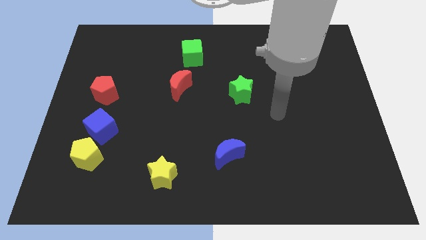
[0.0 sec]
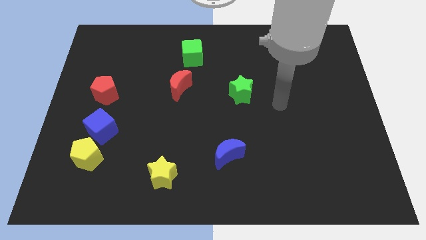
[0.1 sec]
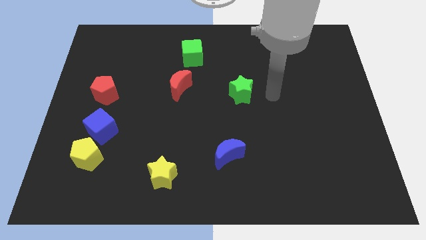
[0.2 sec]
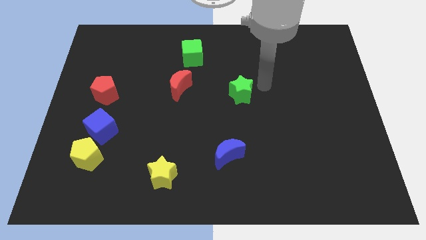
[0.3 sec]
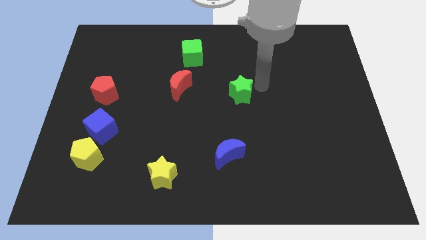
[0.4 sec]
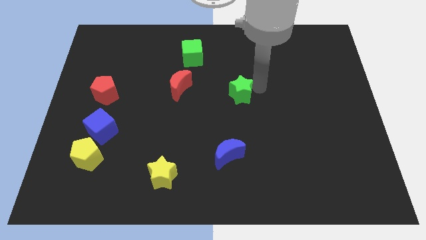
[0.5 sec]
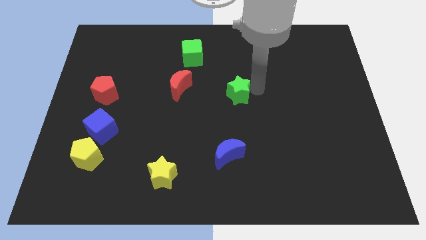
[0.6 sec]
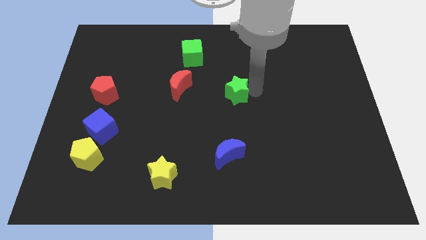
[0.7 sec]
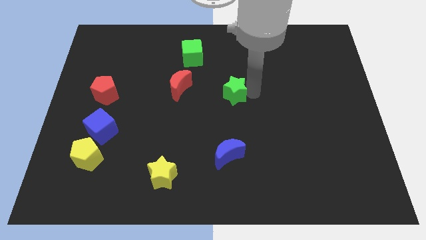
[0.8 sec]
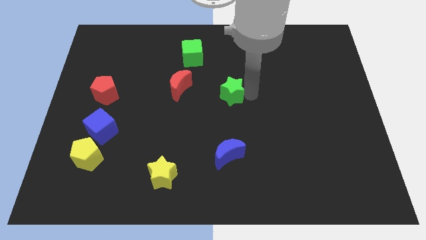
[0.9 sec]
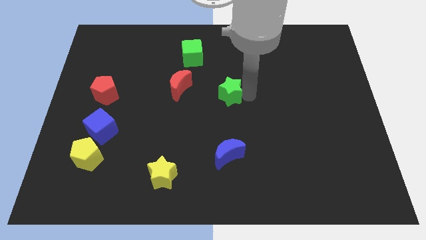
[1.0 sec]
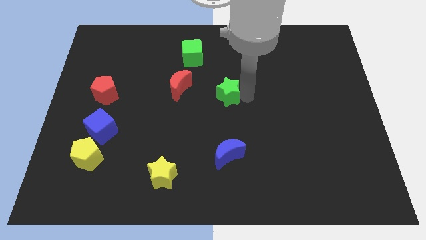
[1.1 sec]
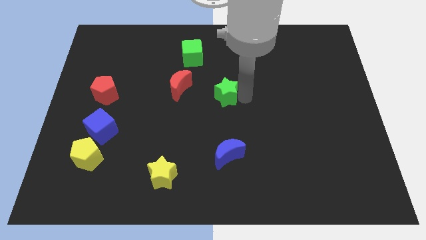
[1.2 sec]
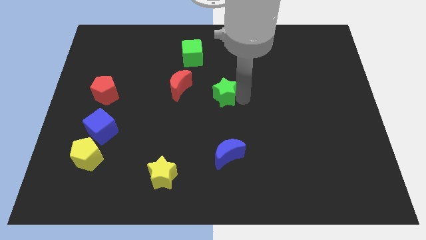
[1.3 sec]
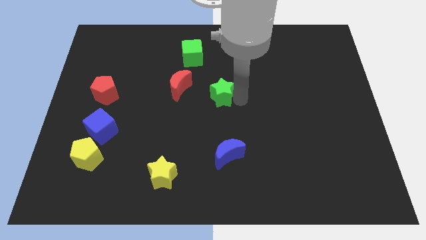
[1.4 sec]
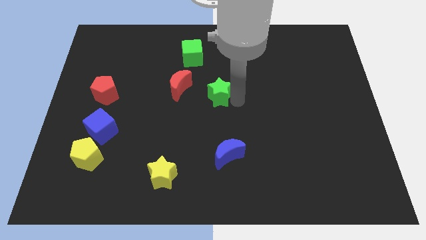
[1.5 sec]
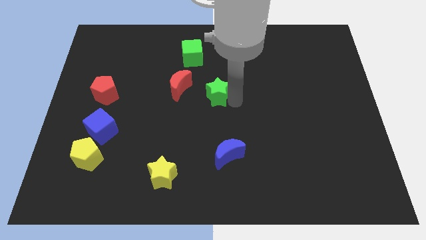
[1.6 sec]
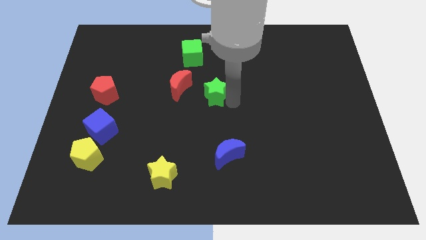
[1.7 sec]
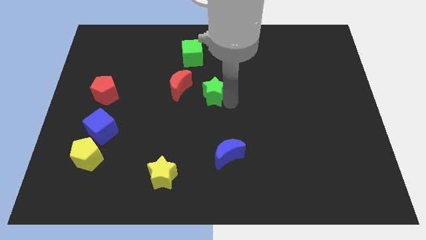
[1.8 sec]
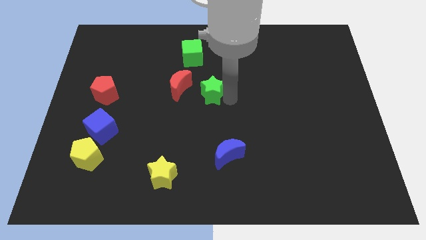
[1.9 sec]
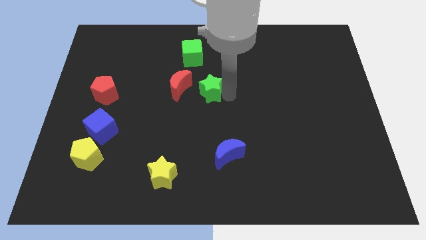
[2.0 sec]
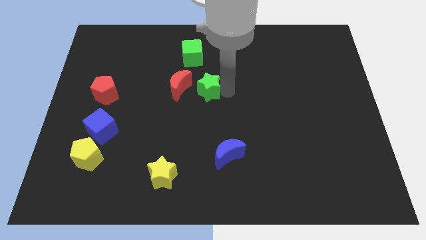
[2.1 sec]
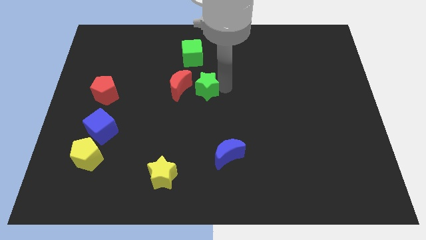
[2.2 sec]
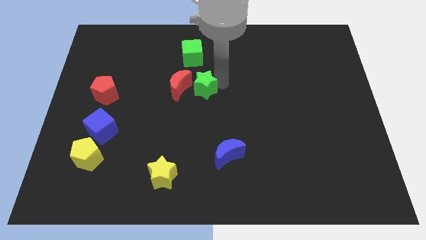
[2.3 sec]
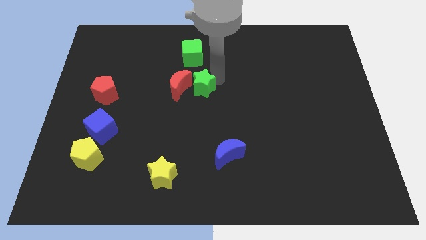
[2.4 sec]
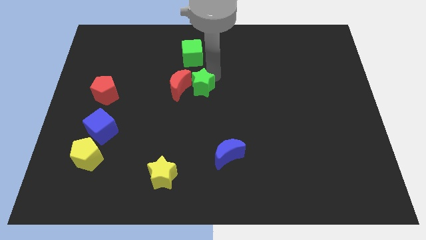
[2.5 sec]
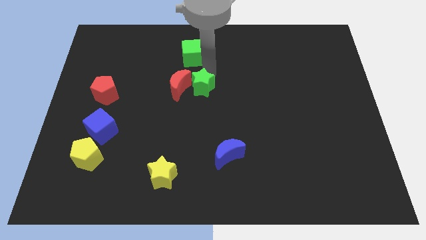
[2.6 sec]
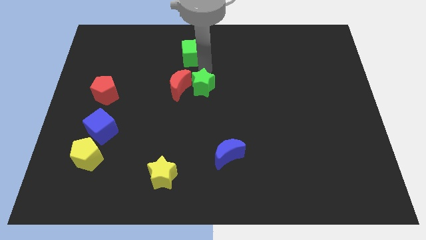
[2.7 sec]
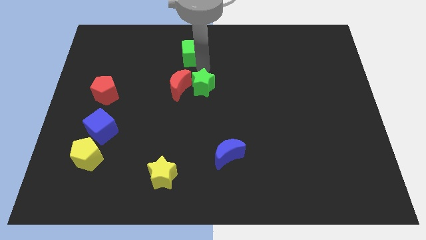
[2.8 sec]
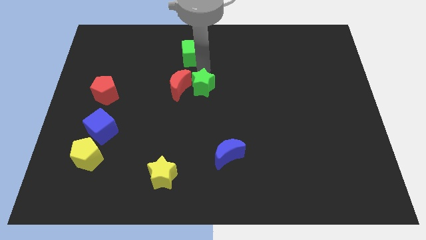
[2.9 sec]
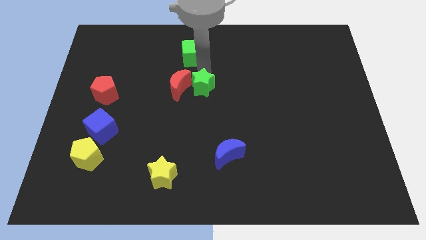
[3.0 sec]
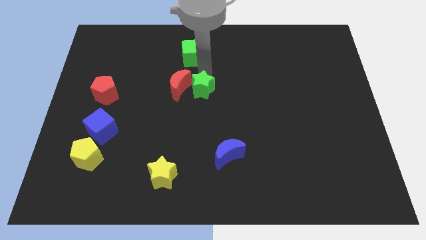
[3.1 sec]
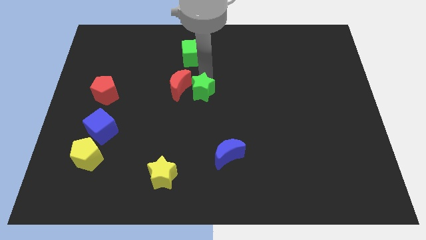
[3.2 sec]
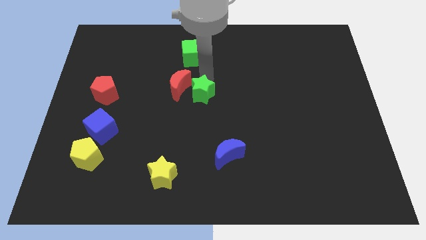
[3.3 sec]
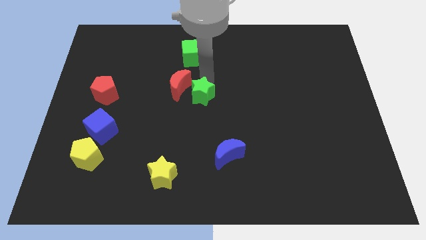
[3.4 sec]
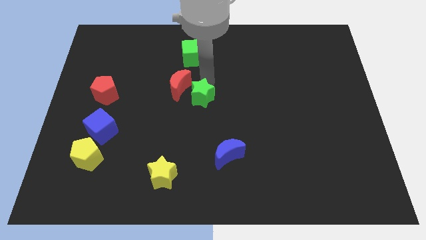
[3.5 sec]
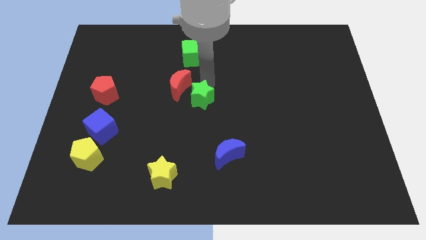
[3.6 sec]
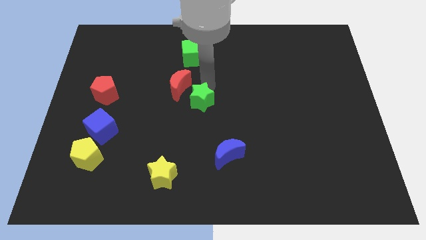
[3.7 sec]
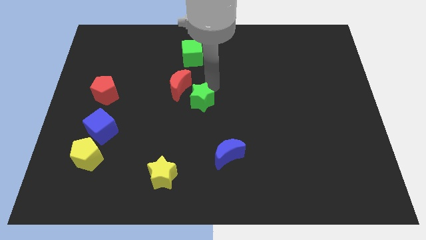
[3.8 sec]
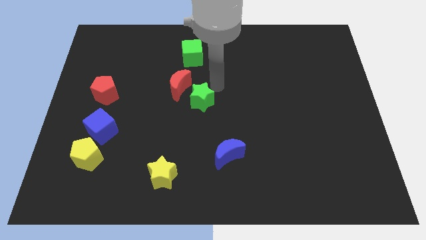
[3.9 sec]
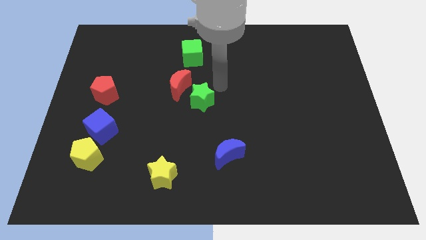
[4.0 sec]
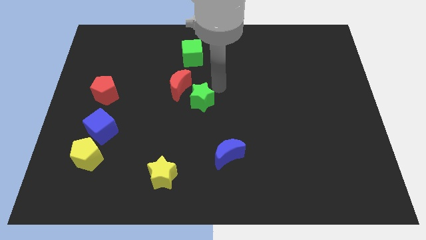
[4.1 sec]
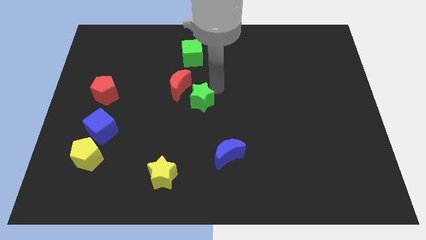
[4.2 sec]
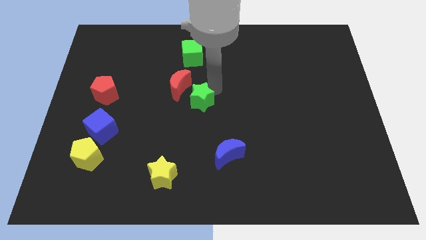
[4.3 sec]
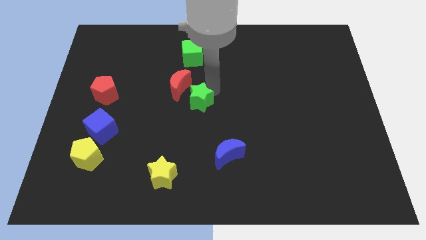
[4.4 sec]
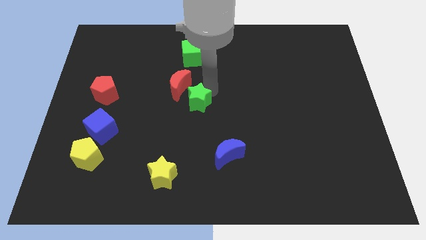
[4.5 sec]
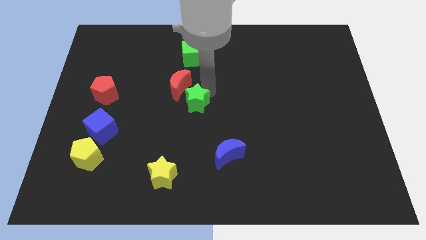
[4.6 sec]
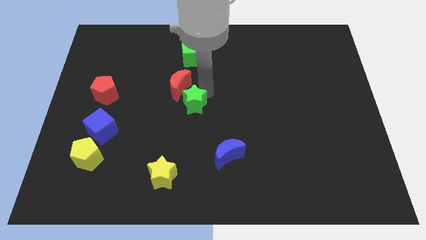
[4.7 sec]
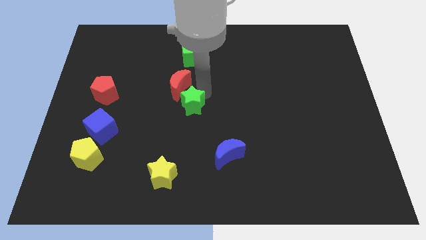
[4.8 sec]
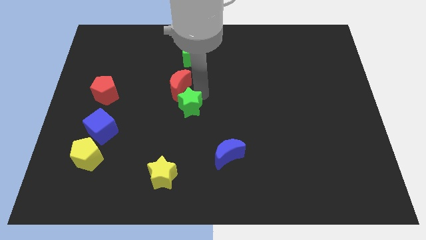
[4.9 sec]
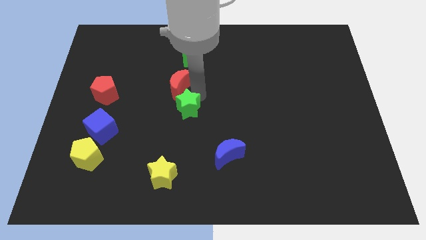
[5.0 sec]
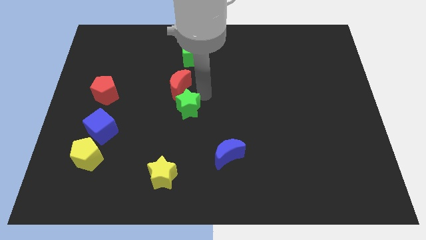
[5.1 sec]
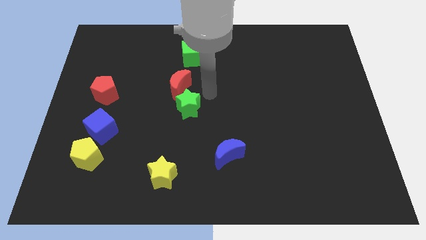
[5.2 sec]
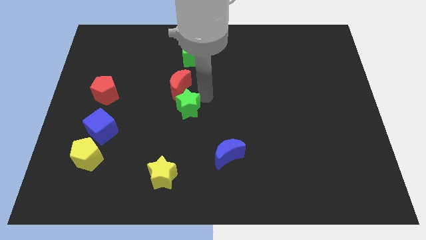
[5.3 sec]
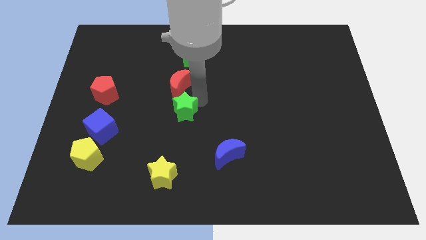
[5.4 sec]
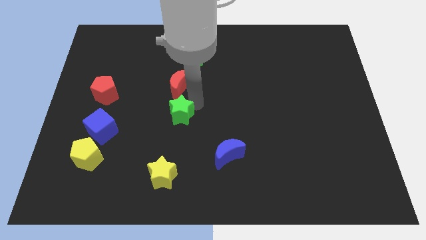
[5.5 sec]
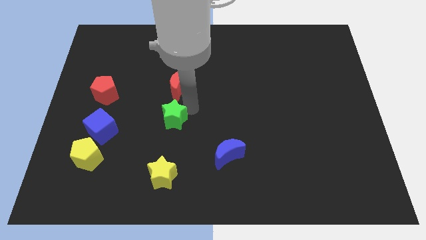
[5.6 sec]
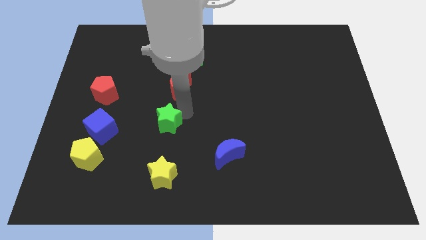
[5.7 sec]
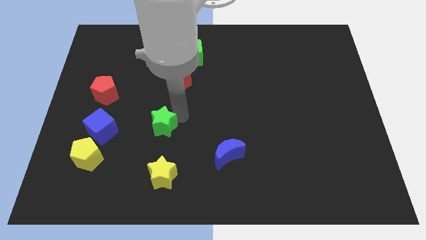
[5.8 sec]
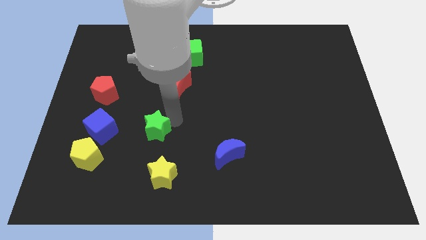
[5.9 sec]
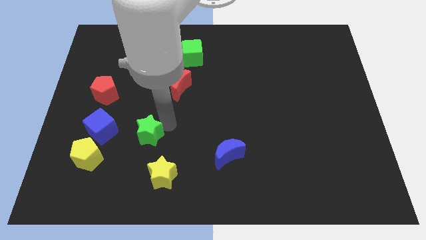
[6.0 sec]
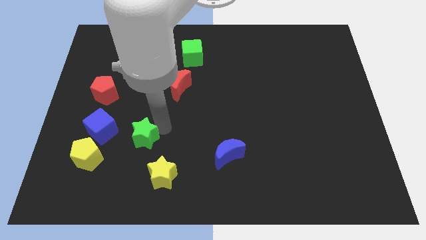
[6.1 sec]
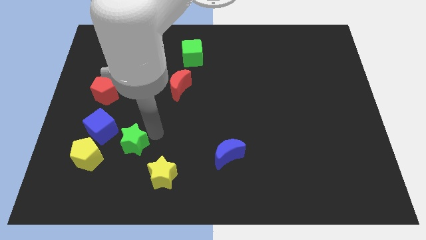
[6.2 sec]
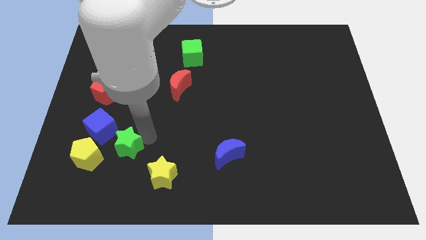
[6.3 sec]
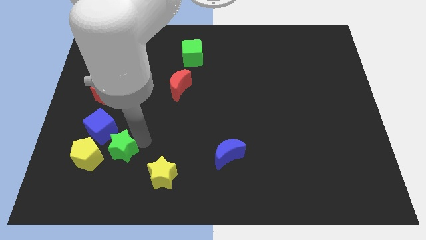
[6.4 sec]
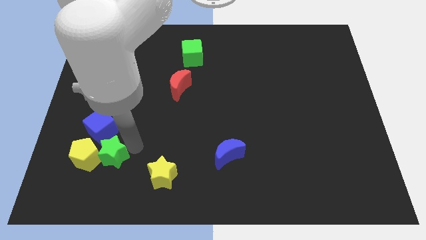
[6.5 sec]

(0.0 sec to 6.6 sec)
slide the green star close to the yellow pentagon

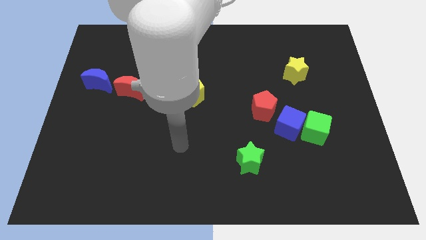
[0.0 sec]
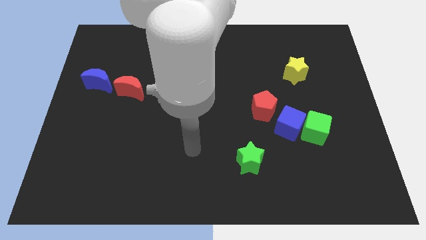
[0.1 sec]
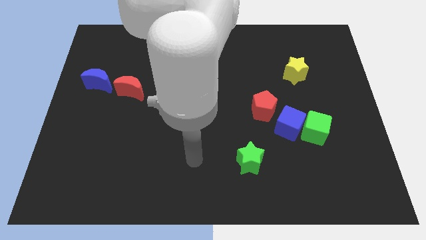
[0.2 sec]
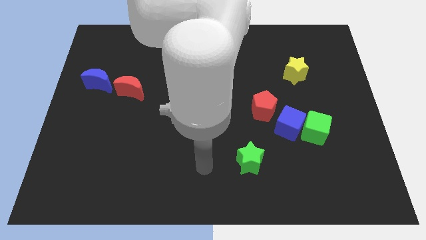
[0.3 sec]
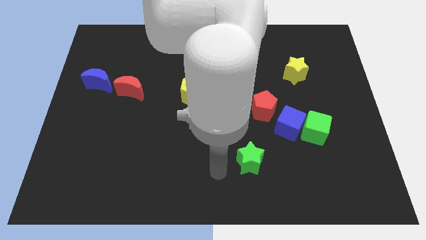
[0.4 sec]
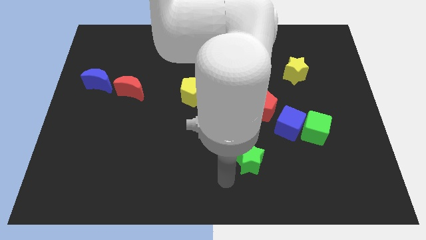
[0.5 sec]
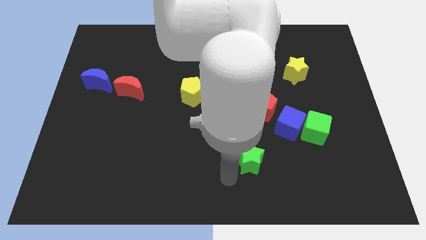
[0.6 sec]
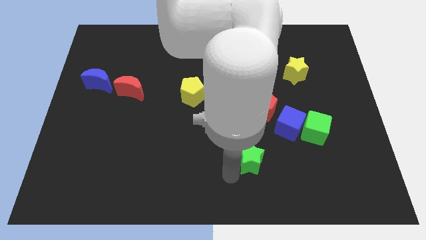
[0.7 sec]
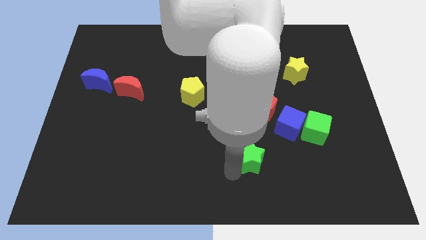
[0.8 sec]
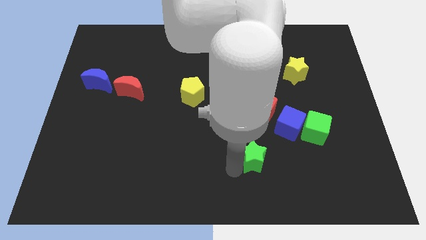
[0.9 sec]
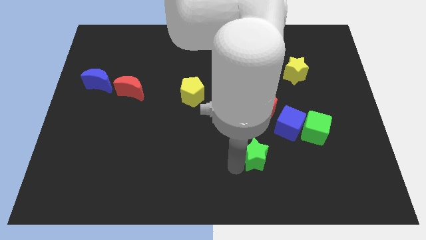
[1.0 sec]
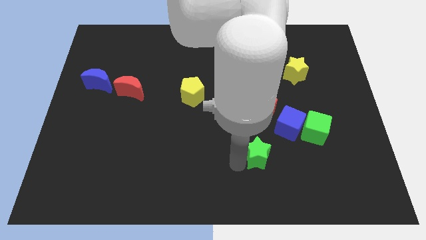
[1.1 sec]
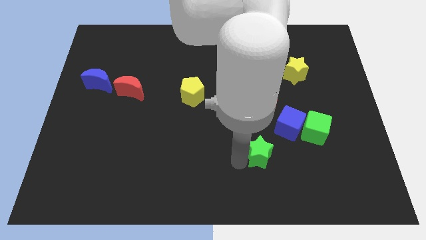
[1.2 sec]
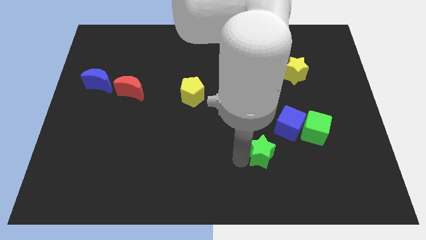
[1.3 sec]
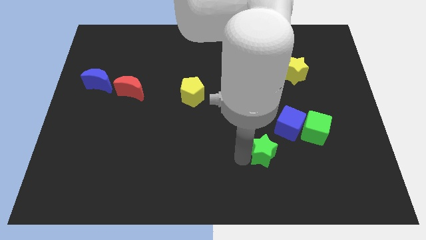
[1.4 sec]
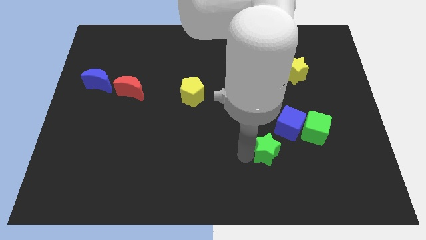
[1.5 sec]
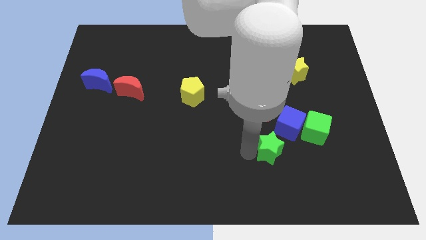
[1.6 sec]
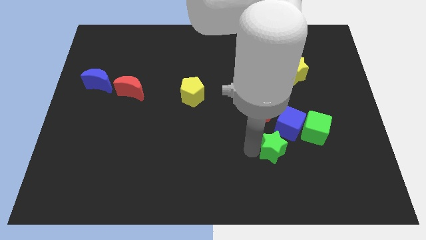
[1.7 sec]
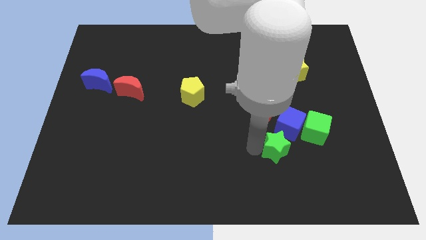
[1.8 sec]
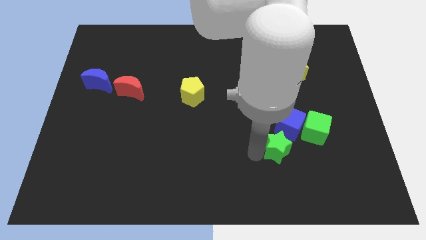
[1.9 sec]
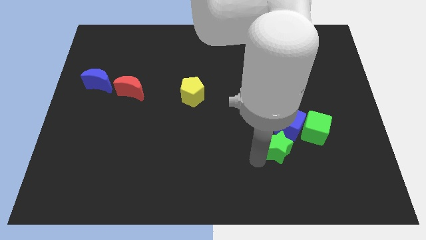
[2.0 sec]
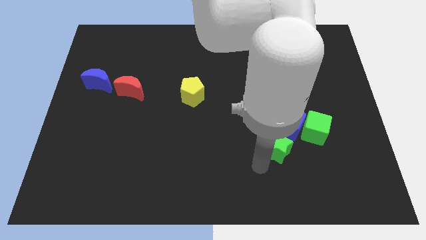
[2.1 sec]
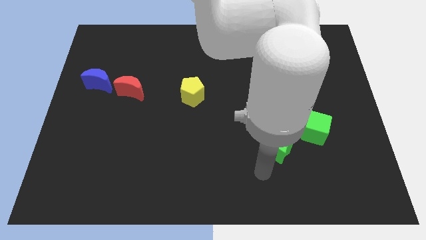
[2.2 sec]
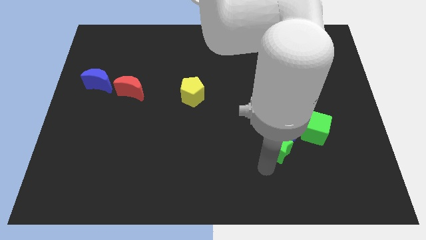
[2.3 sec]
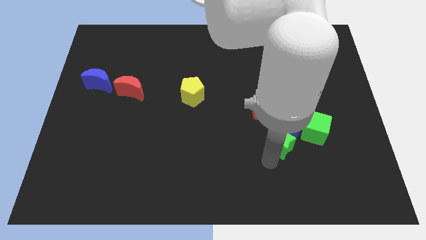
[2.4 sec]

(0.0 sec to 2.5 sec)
put the green star towards the blue cube
